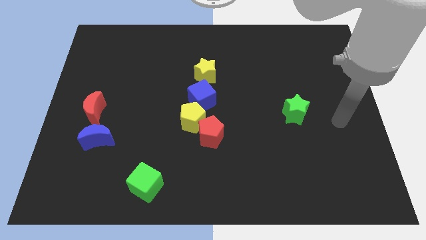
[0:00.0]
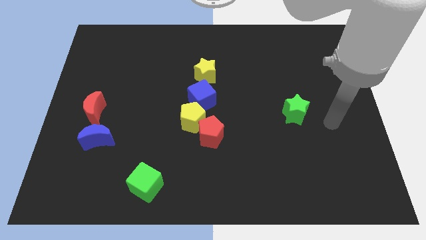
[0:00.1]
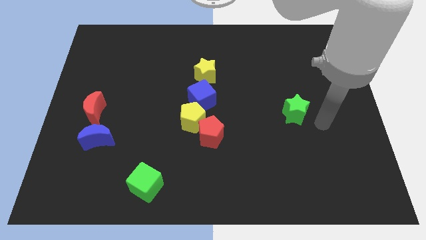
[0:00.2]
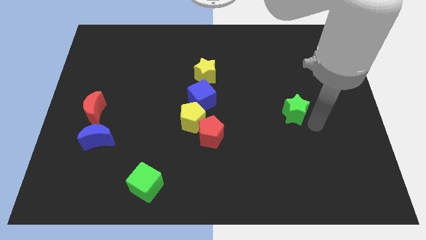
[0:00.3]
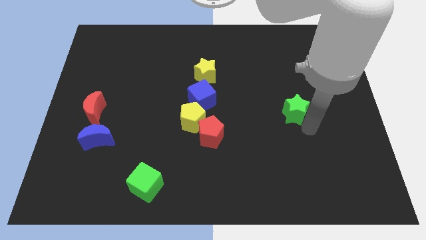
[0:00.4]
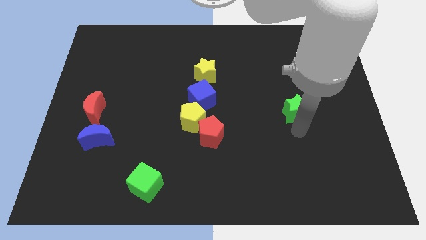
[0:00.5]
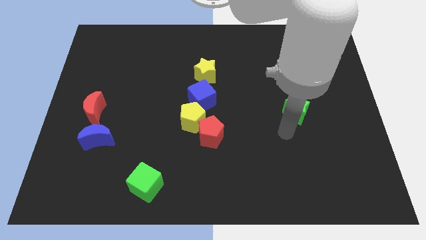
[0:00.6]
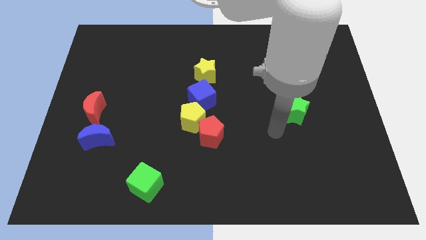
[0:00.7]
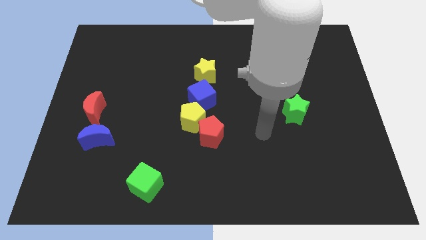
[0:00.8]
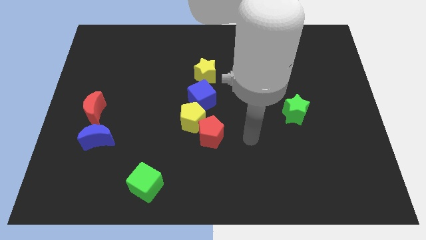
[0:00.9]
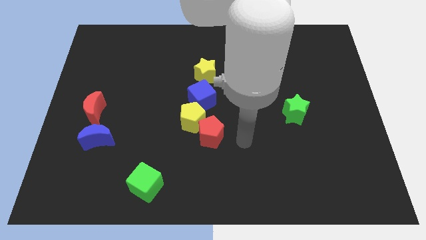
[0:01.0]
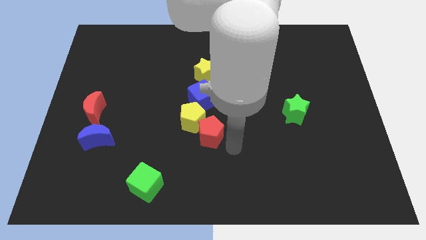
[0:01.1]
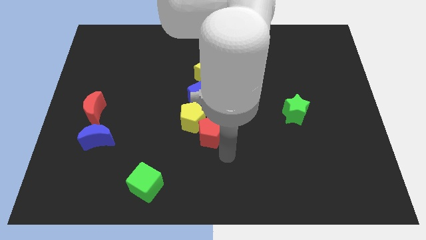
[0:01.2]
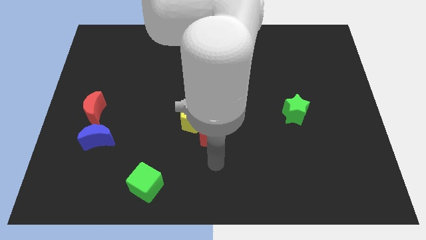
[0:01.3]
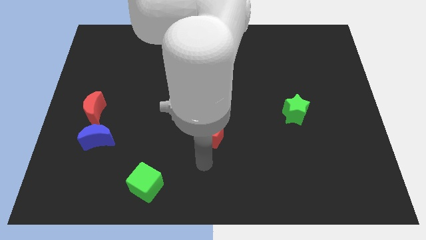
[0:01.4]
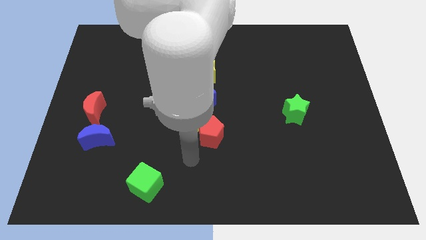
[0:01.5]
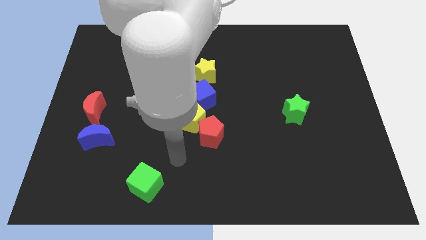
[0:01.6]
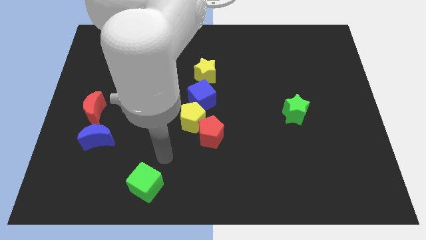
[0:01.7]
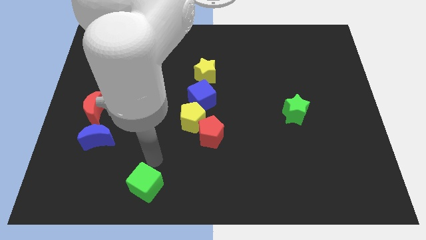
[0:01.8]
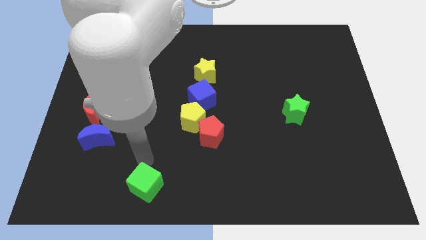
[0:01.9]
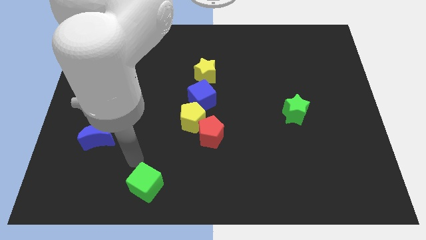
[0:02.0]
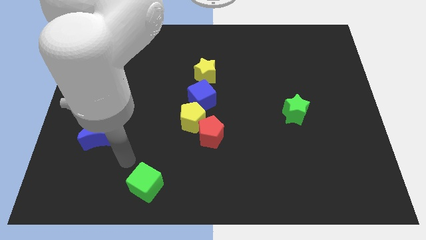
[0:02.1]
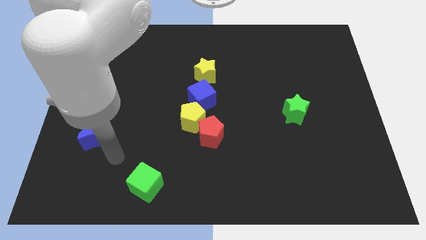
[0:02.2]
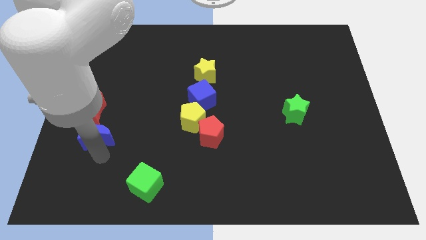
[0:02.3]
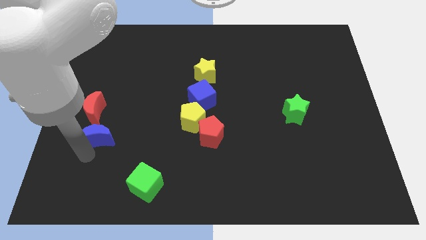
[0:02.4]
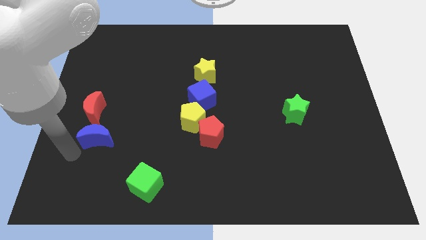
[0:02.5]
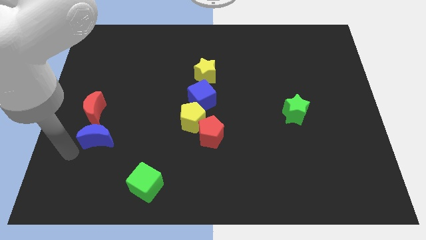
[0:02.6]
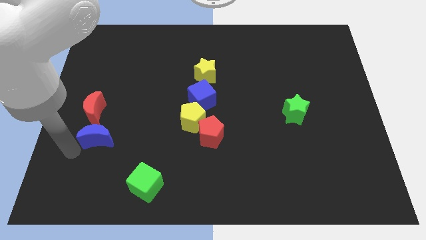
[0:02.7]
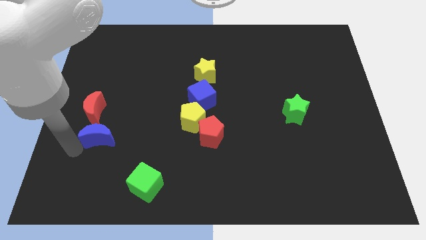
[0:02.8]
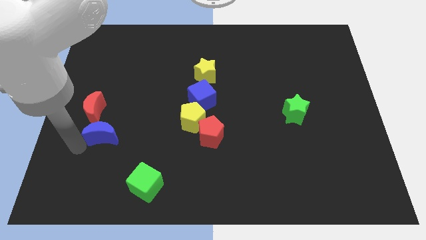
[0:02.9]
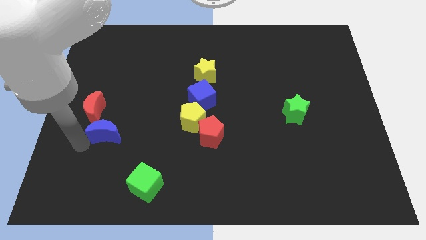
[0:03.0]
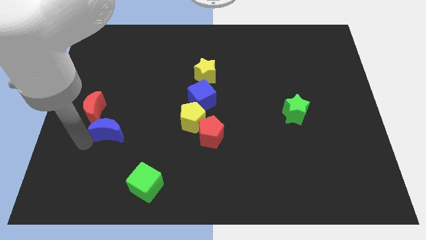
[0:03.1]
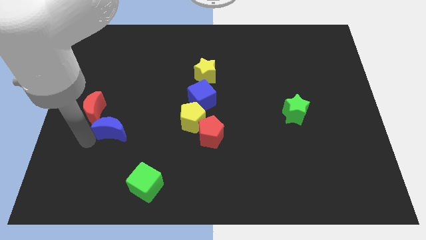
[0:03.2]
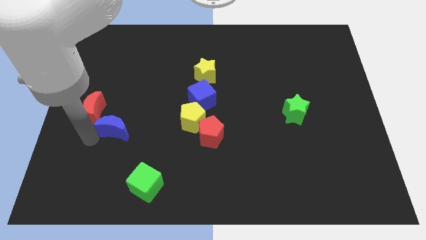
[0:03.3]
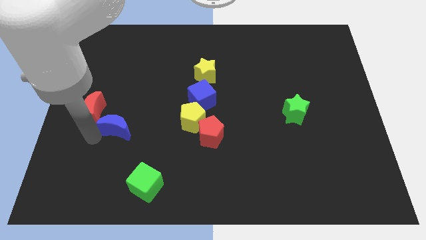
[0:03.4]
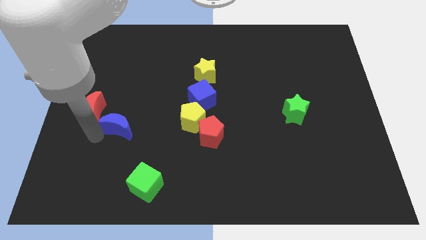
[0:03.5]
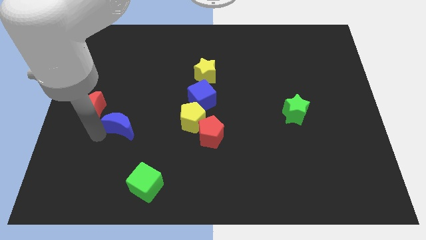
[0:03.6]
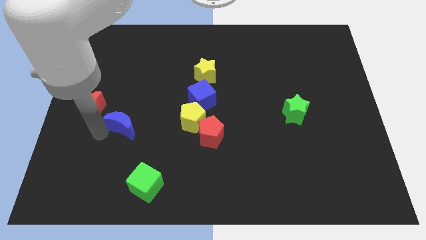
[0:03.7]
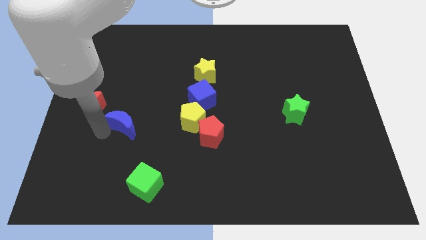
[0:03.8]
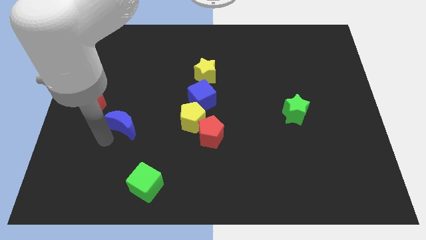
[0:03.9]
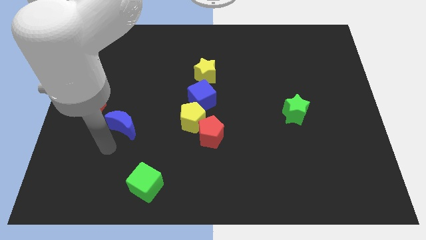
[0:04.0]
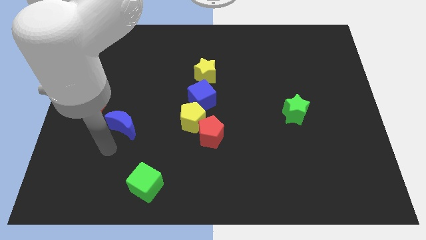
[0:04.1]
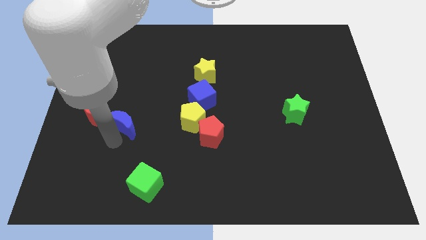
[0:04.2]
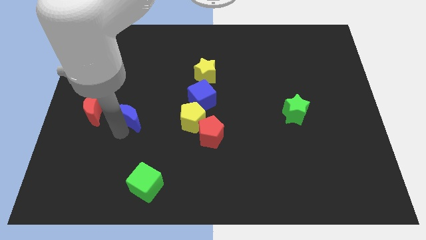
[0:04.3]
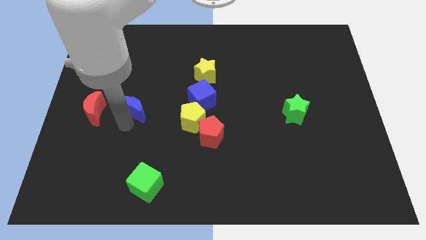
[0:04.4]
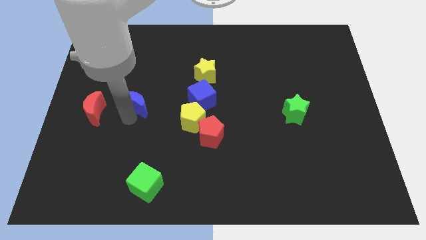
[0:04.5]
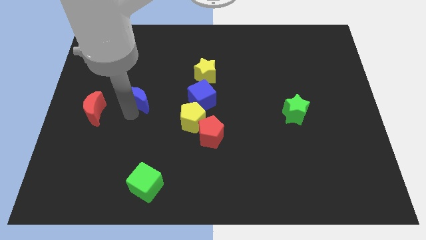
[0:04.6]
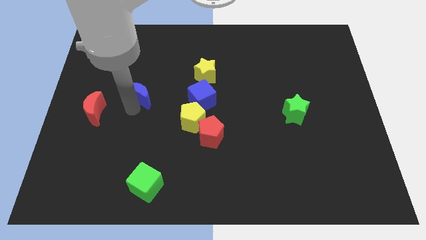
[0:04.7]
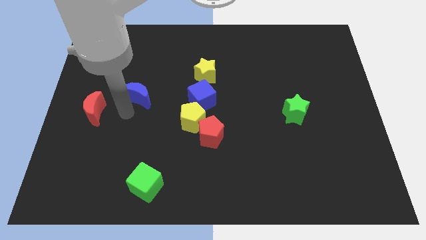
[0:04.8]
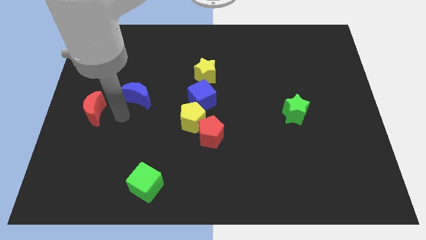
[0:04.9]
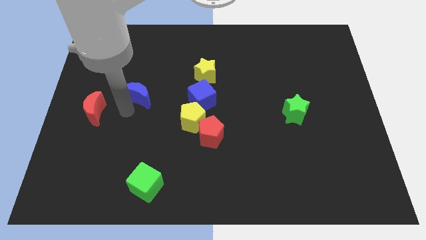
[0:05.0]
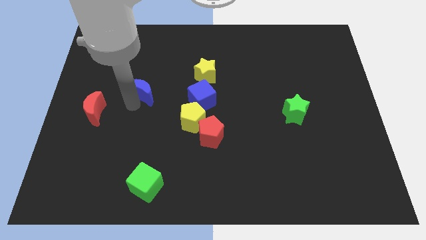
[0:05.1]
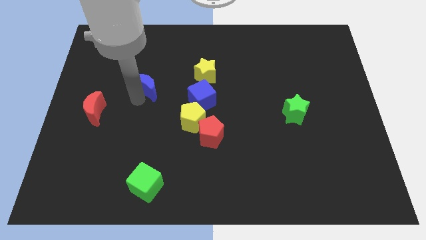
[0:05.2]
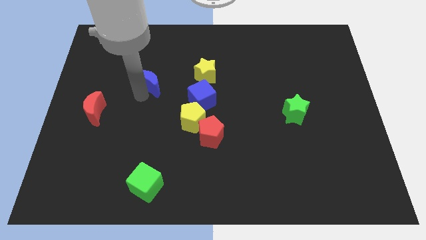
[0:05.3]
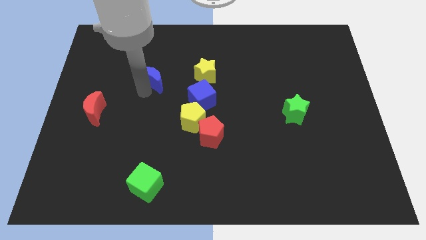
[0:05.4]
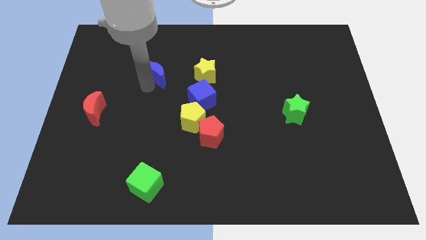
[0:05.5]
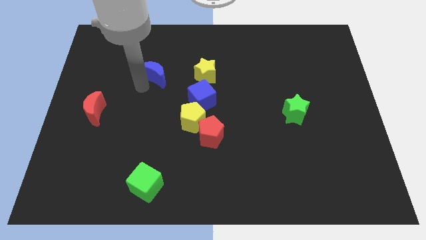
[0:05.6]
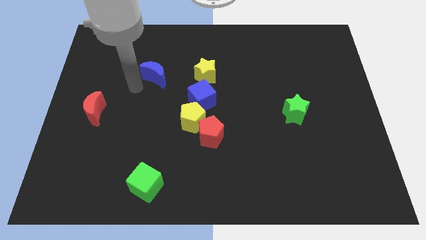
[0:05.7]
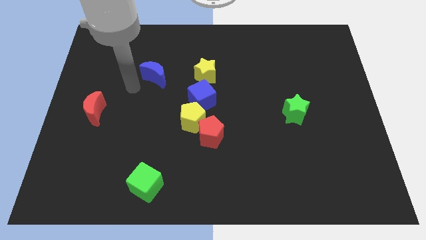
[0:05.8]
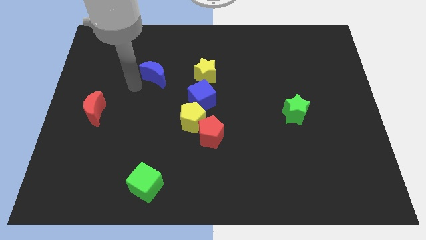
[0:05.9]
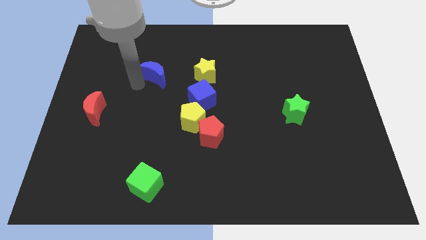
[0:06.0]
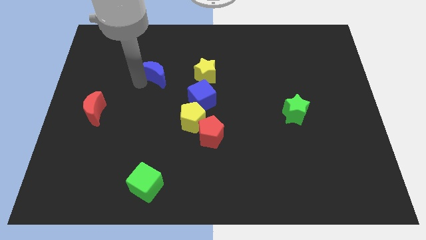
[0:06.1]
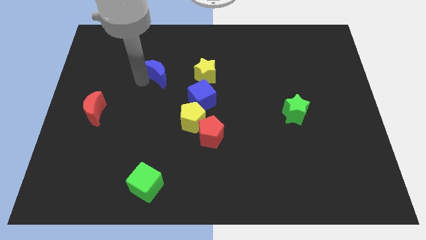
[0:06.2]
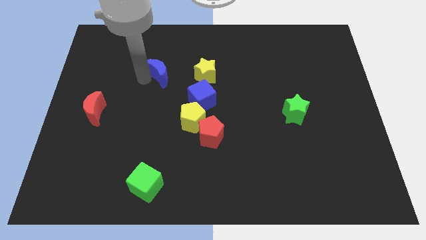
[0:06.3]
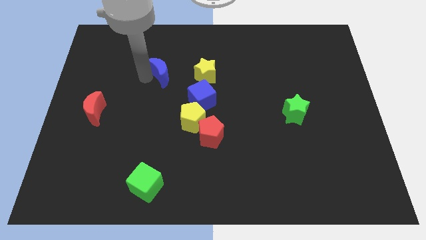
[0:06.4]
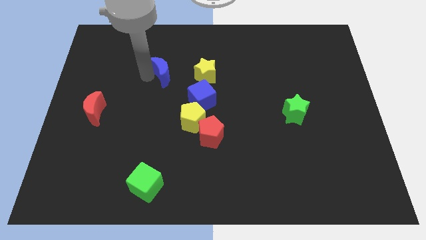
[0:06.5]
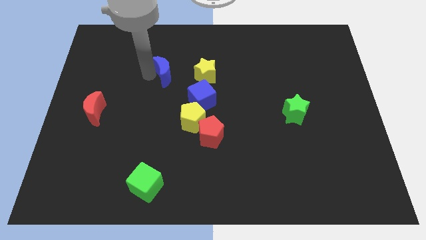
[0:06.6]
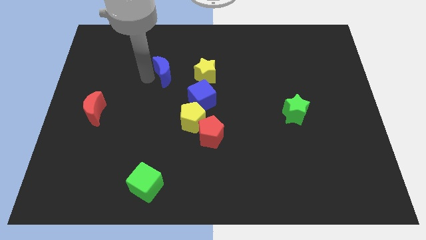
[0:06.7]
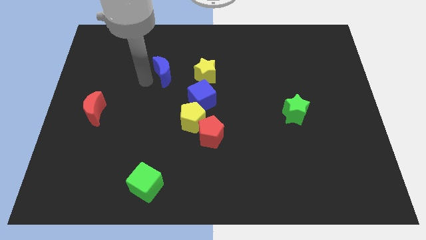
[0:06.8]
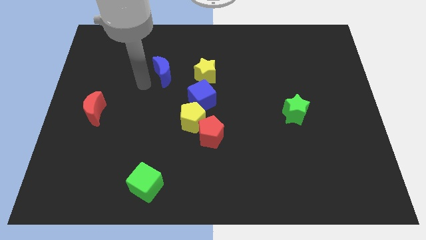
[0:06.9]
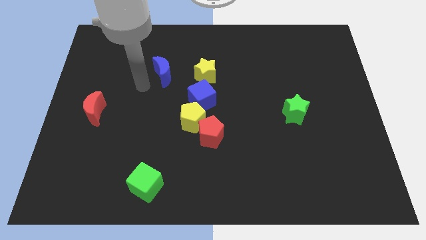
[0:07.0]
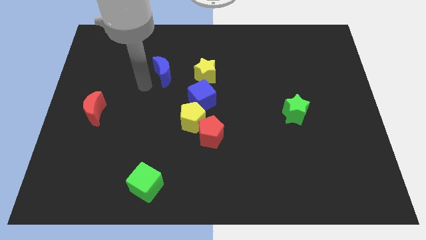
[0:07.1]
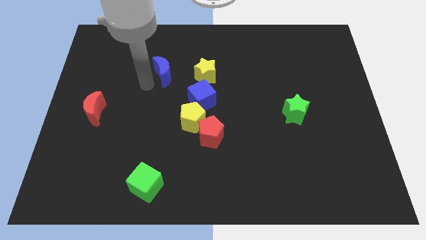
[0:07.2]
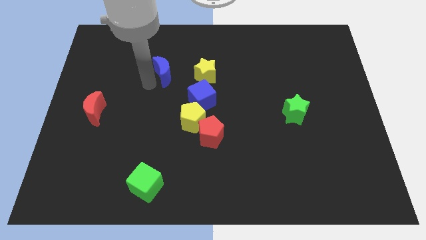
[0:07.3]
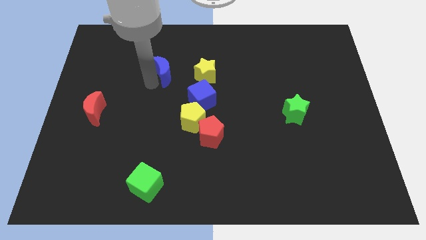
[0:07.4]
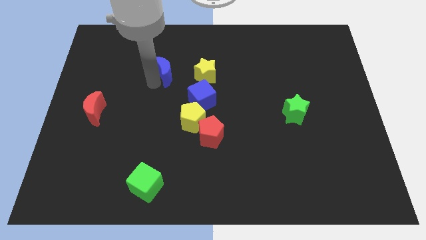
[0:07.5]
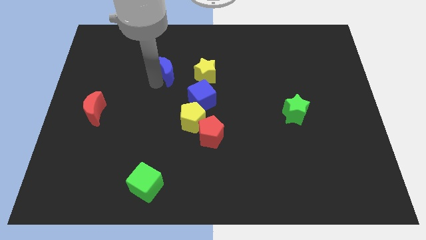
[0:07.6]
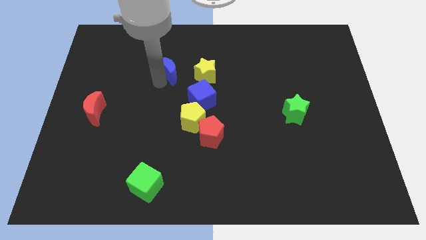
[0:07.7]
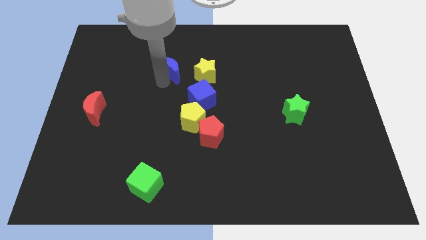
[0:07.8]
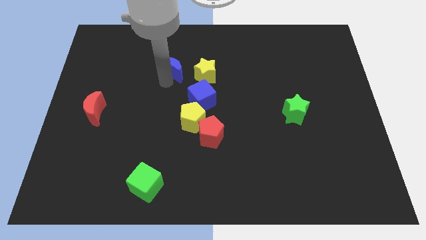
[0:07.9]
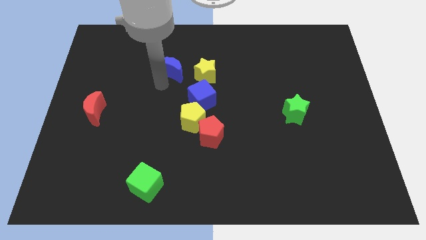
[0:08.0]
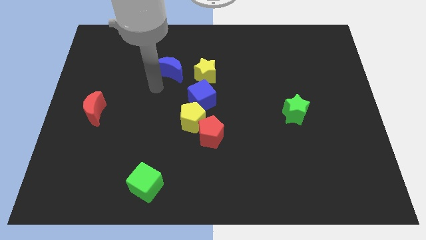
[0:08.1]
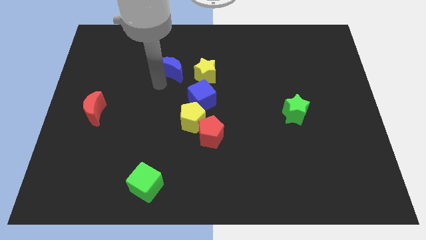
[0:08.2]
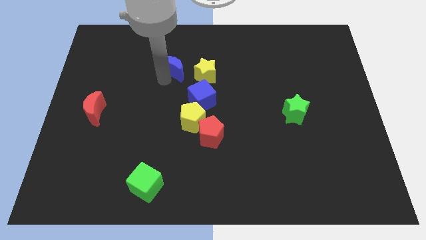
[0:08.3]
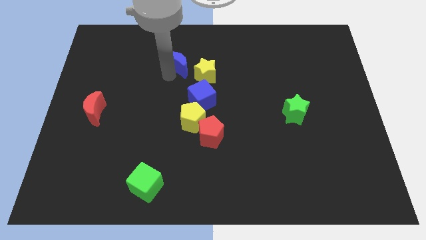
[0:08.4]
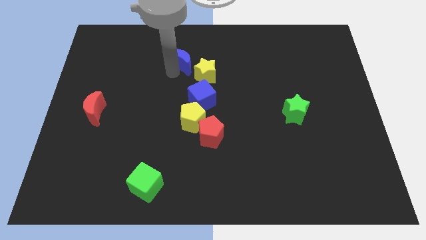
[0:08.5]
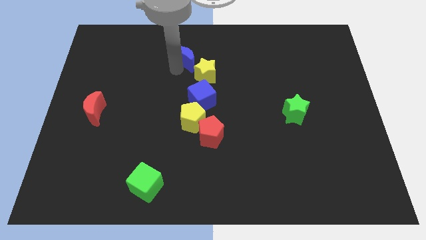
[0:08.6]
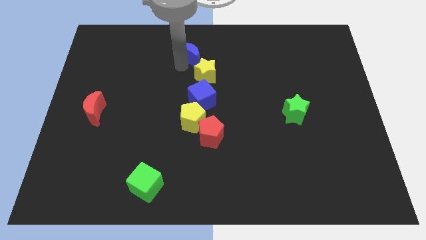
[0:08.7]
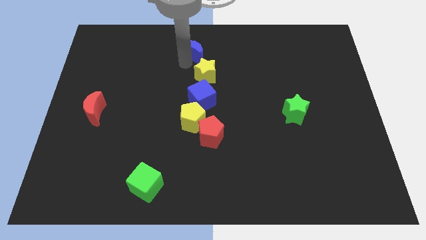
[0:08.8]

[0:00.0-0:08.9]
slide the blue moon to the towards your base
